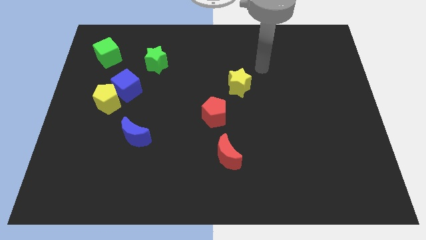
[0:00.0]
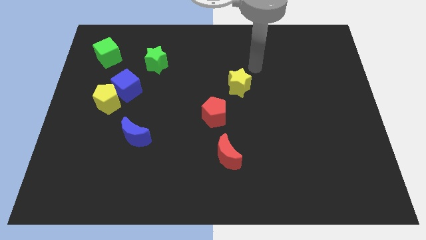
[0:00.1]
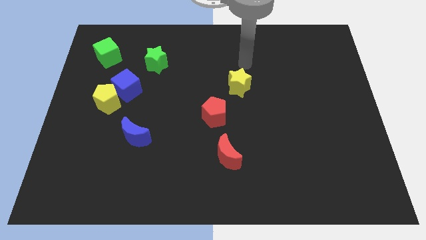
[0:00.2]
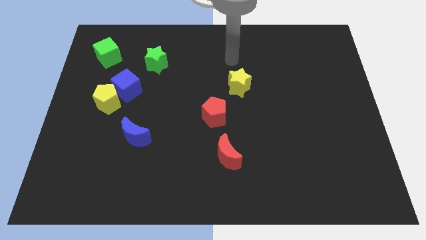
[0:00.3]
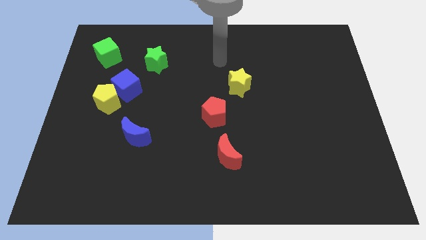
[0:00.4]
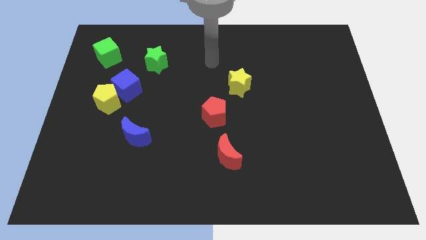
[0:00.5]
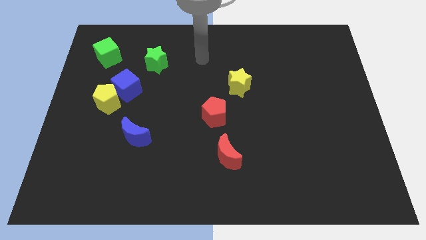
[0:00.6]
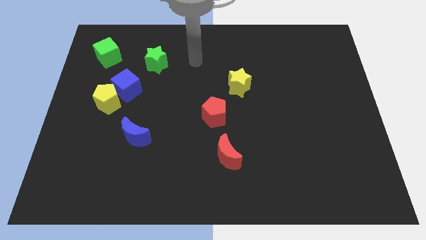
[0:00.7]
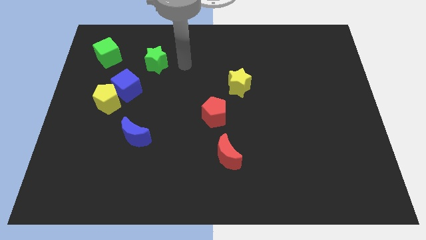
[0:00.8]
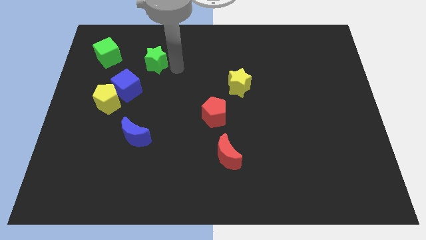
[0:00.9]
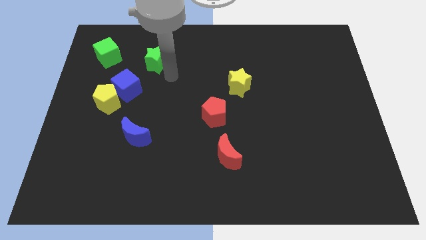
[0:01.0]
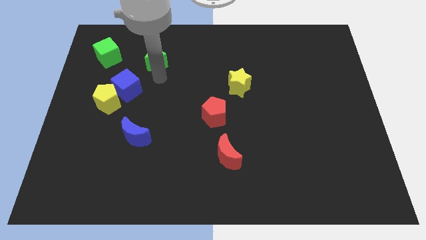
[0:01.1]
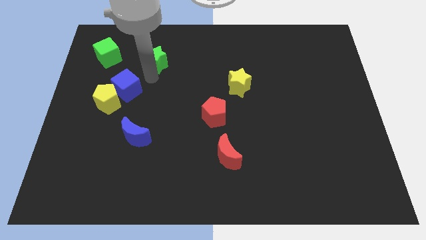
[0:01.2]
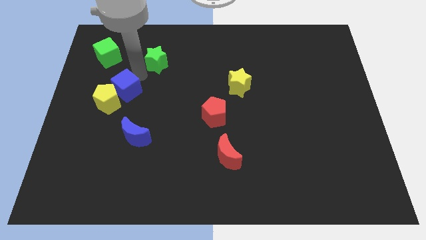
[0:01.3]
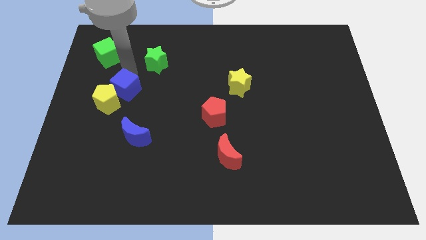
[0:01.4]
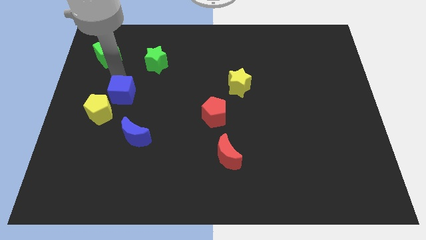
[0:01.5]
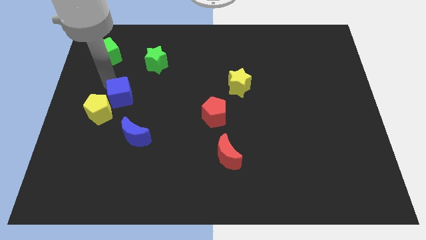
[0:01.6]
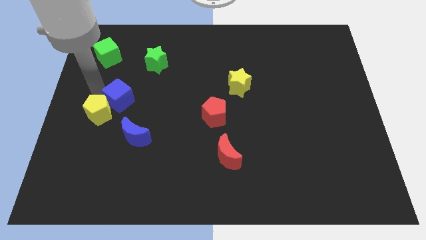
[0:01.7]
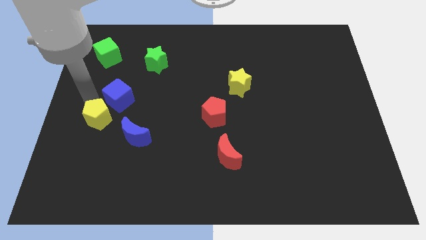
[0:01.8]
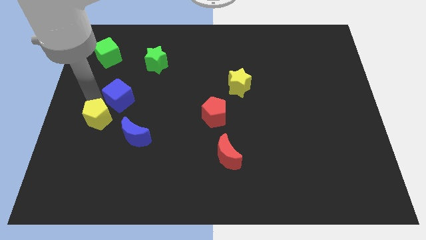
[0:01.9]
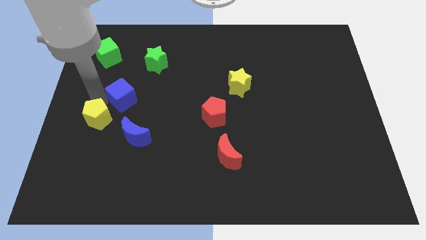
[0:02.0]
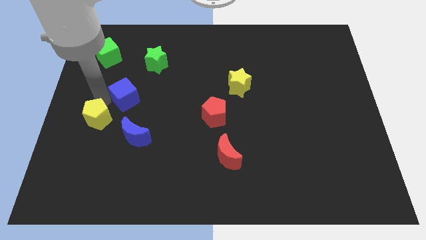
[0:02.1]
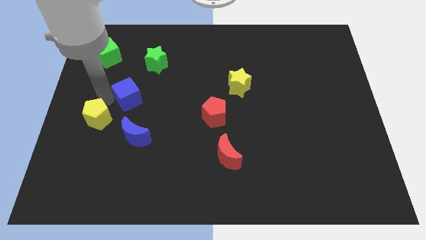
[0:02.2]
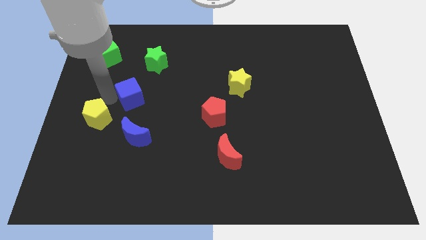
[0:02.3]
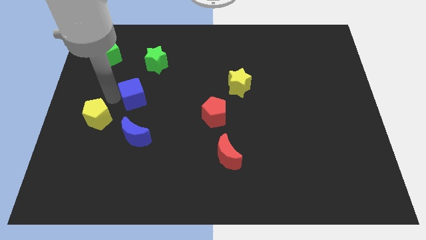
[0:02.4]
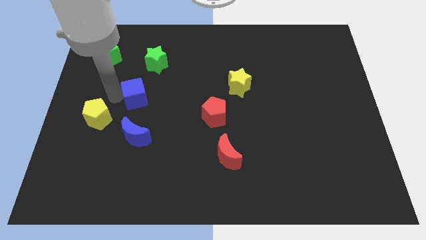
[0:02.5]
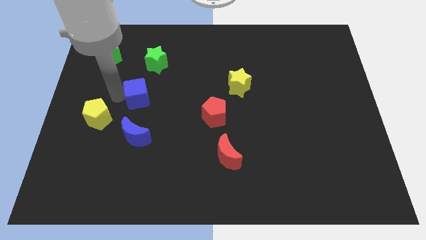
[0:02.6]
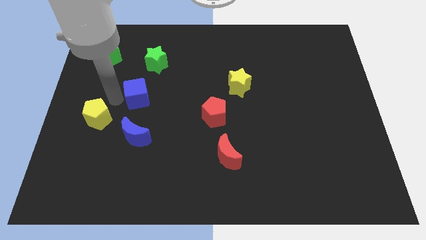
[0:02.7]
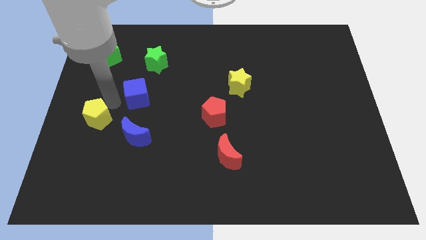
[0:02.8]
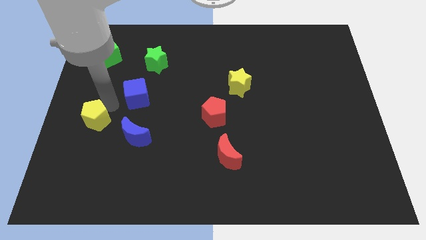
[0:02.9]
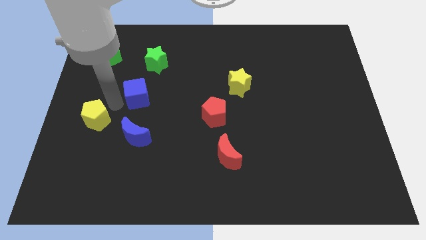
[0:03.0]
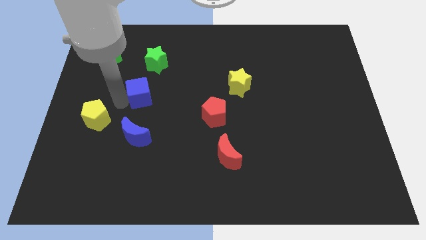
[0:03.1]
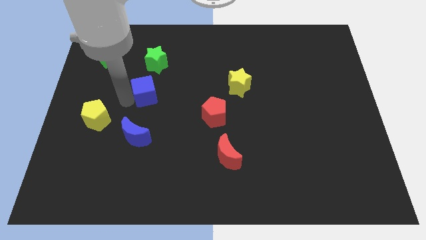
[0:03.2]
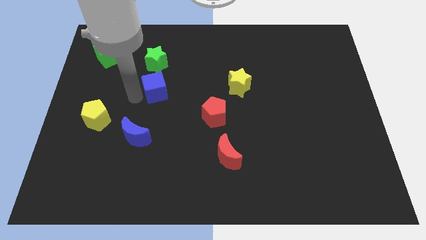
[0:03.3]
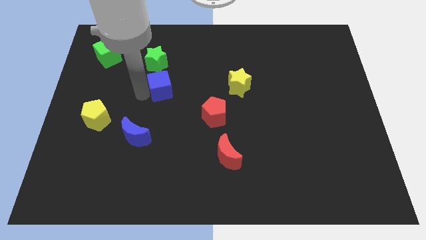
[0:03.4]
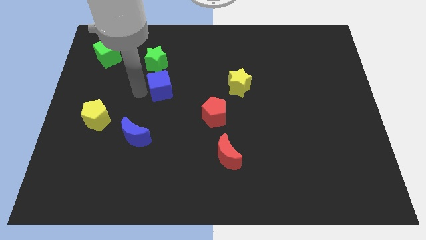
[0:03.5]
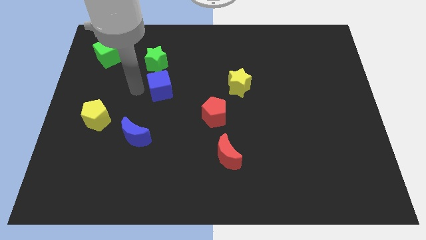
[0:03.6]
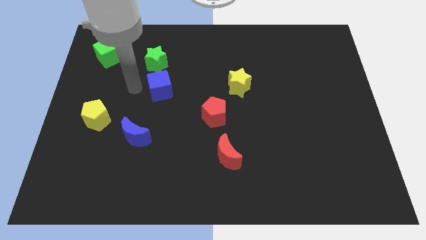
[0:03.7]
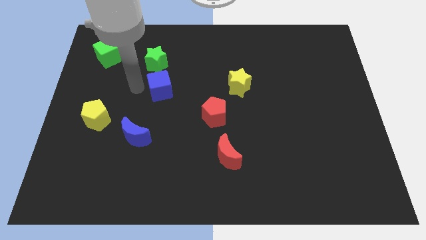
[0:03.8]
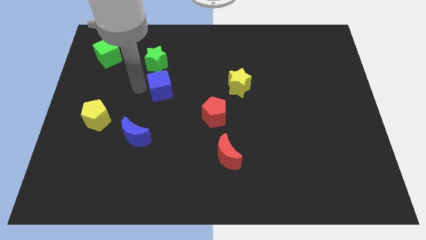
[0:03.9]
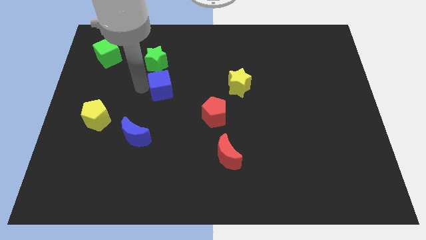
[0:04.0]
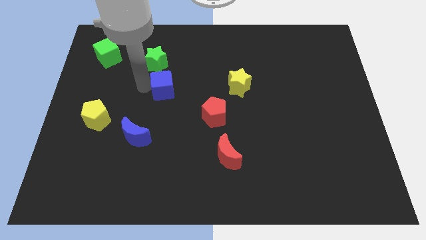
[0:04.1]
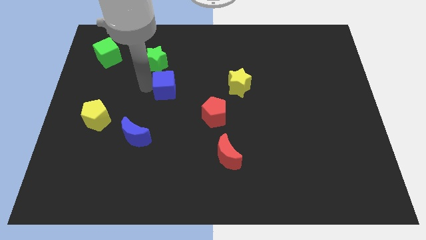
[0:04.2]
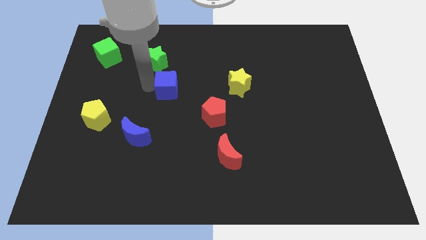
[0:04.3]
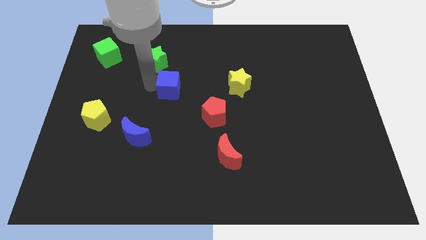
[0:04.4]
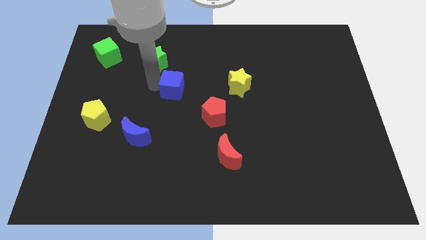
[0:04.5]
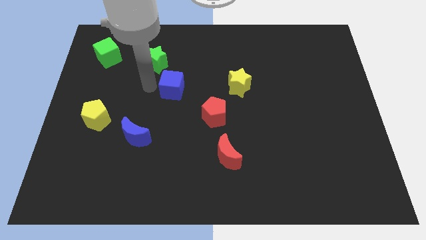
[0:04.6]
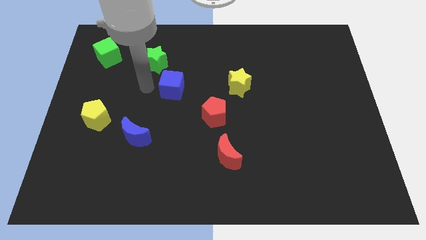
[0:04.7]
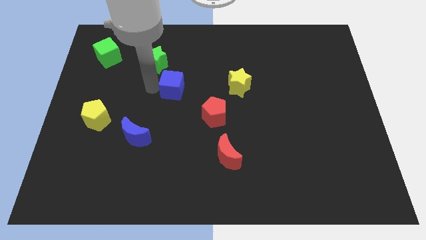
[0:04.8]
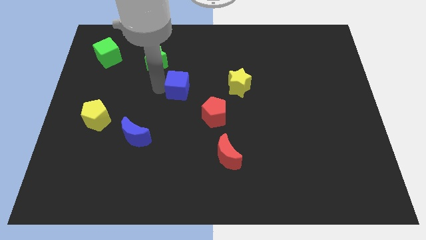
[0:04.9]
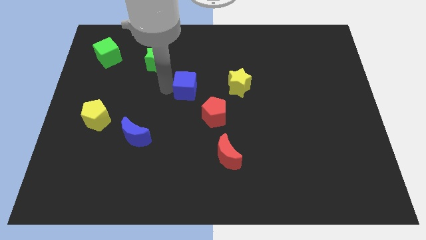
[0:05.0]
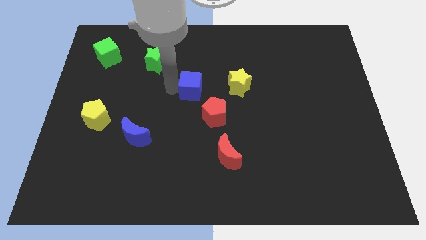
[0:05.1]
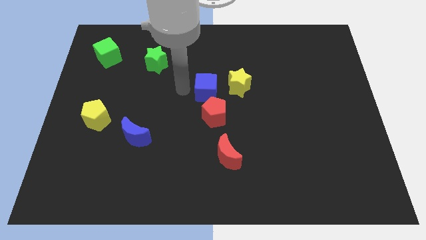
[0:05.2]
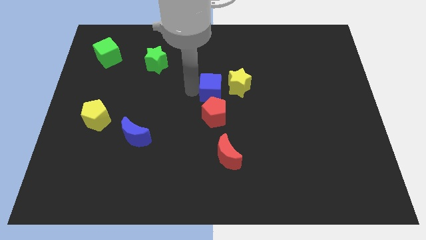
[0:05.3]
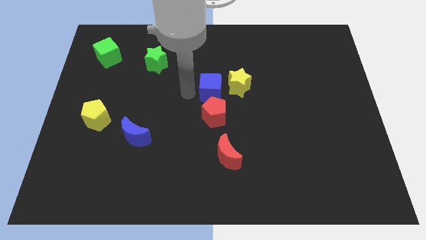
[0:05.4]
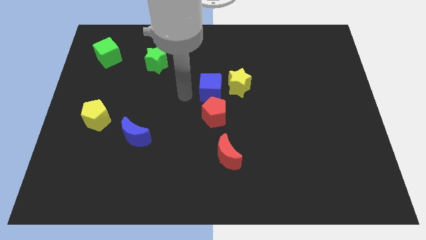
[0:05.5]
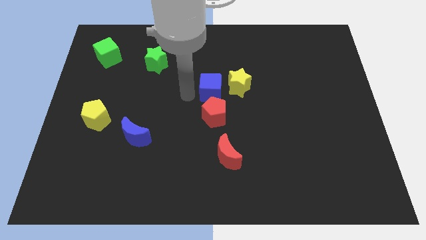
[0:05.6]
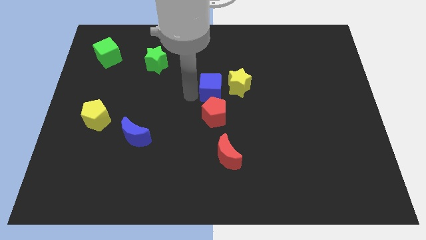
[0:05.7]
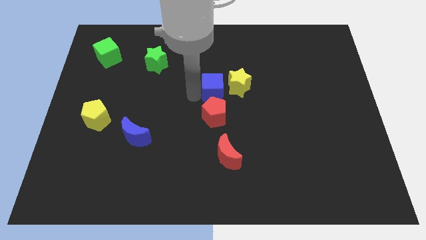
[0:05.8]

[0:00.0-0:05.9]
slide the blue cube next to the yellow star

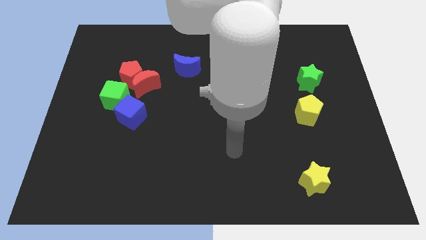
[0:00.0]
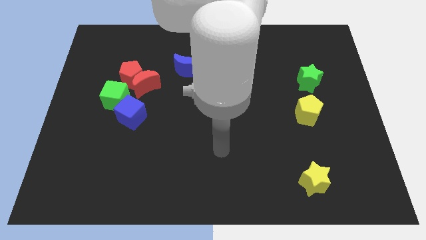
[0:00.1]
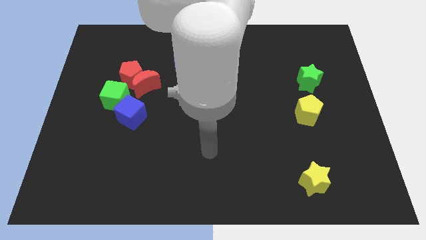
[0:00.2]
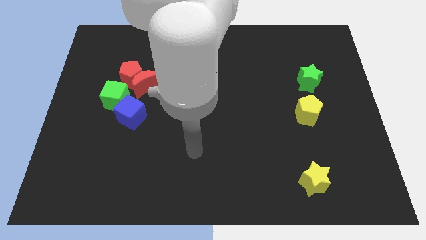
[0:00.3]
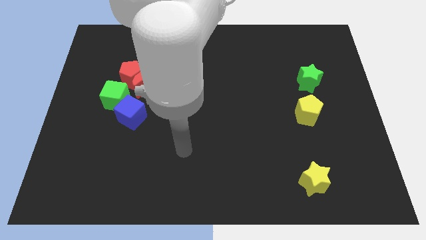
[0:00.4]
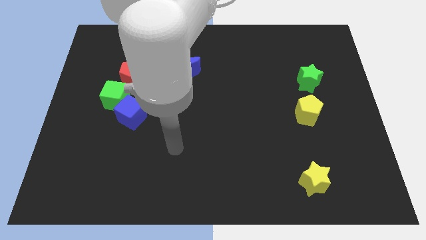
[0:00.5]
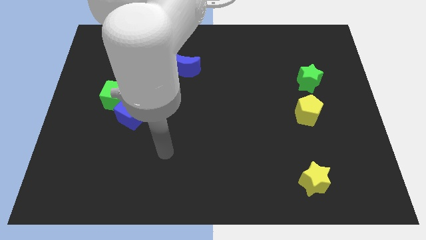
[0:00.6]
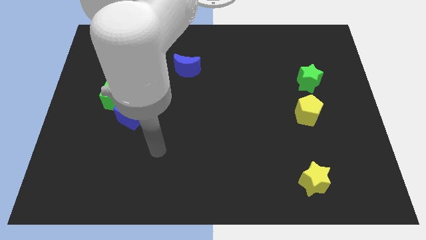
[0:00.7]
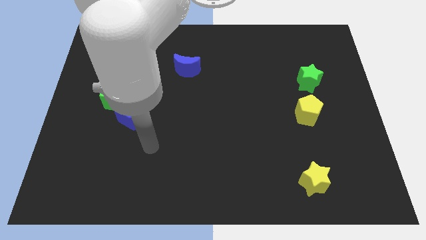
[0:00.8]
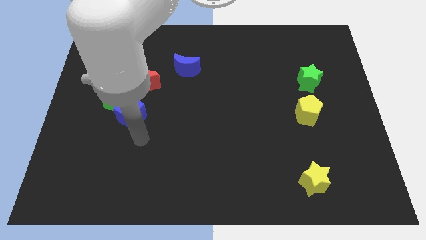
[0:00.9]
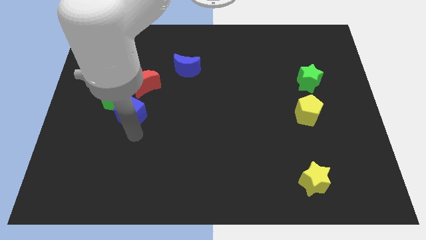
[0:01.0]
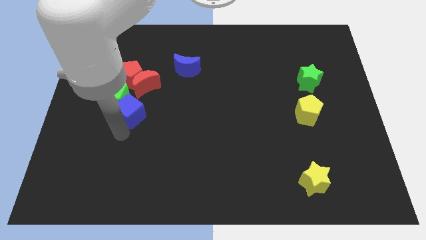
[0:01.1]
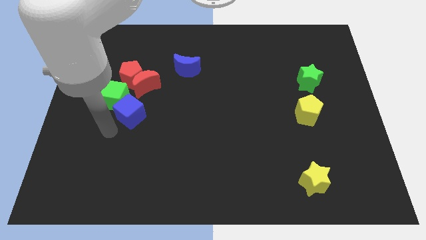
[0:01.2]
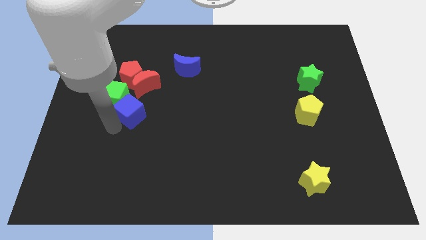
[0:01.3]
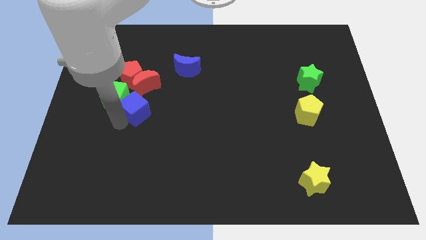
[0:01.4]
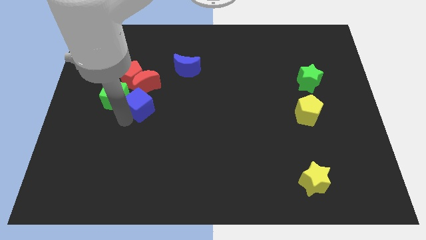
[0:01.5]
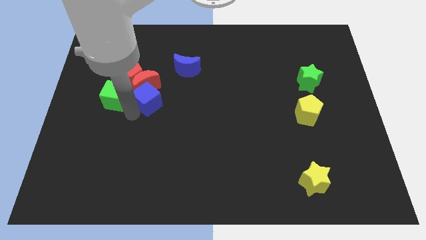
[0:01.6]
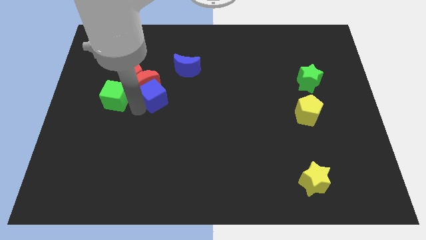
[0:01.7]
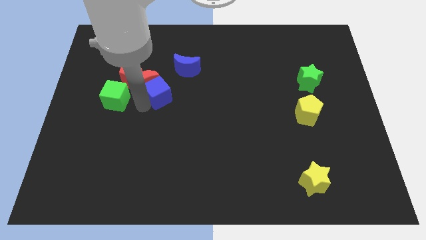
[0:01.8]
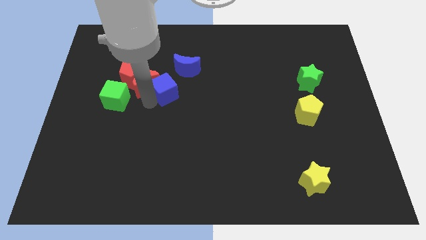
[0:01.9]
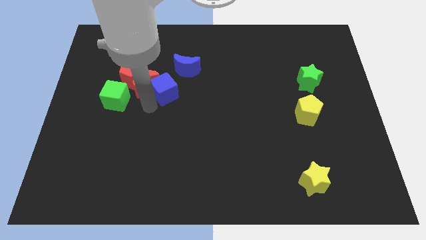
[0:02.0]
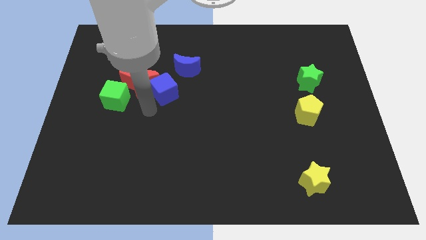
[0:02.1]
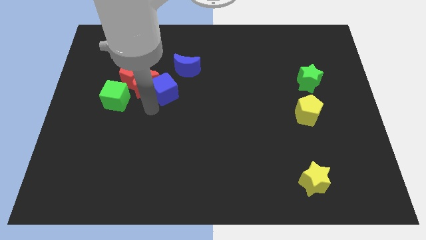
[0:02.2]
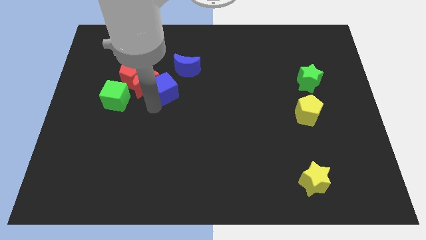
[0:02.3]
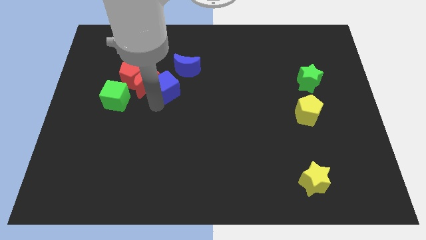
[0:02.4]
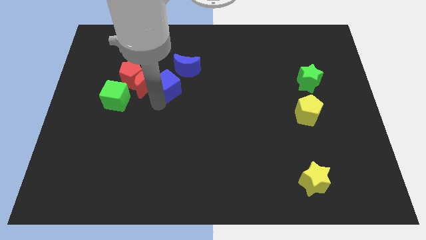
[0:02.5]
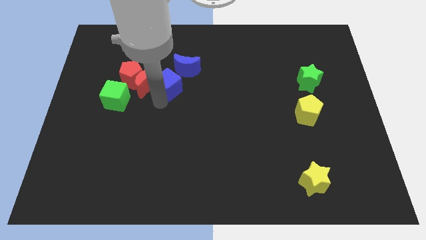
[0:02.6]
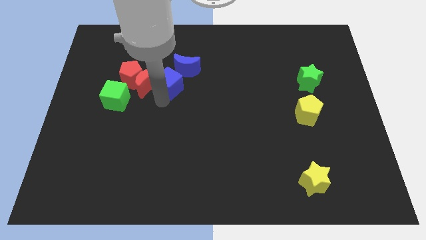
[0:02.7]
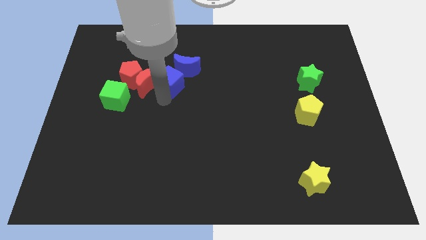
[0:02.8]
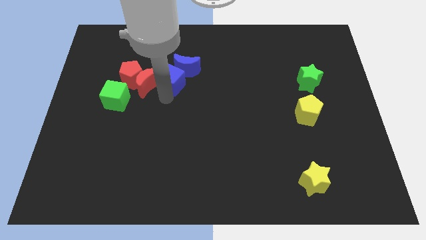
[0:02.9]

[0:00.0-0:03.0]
slide the blue cube close to the blue moon
